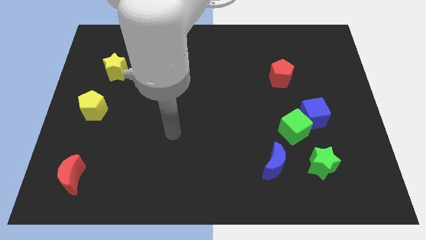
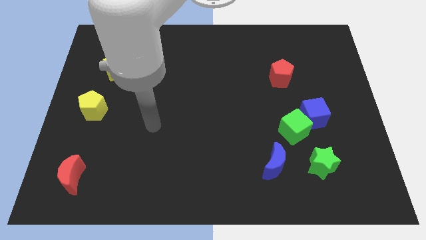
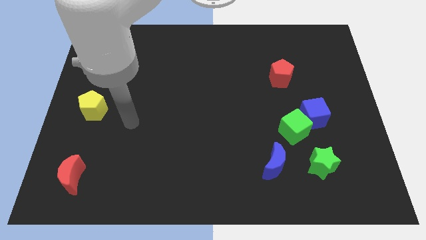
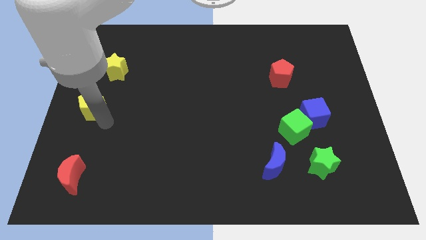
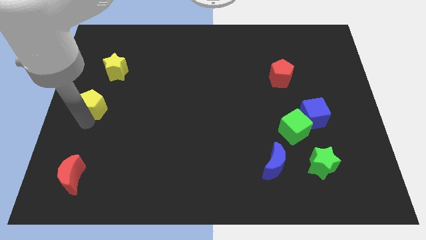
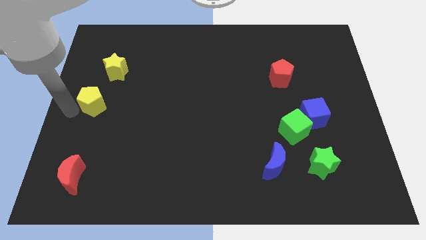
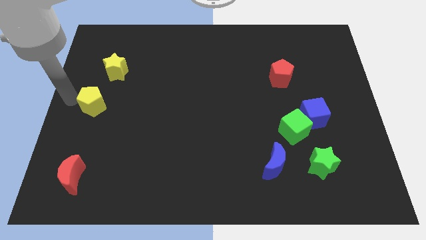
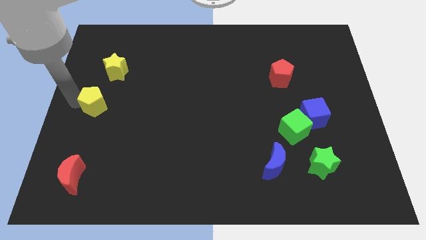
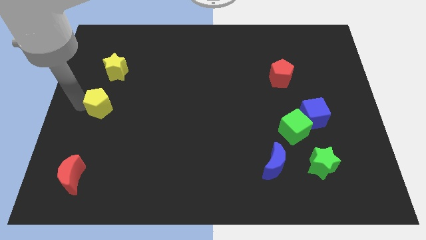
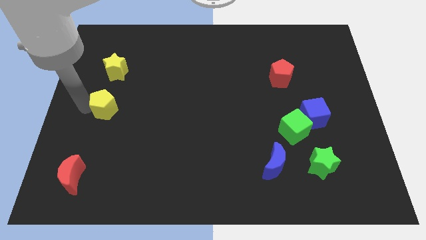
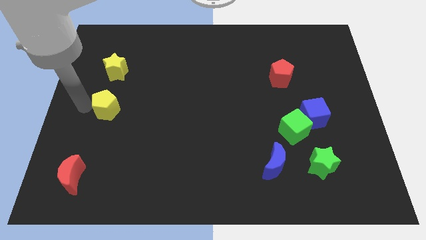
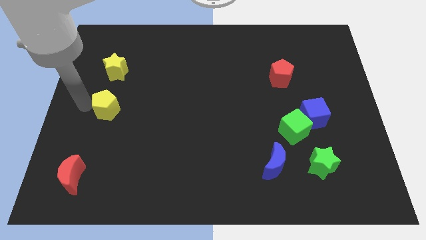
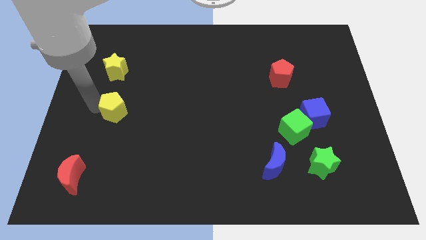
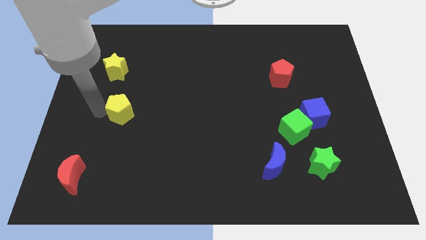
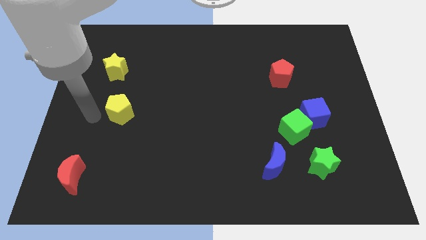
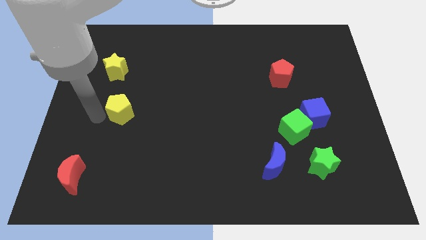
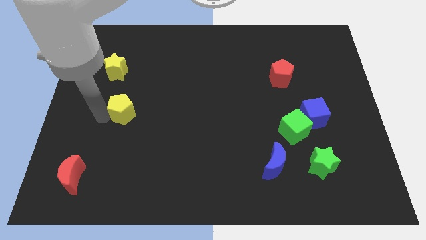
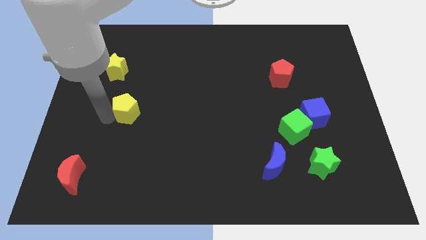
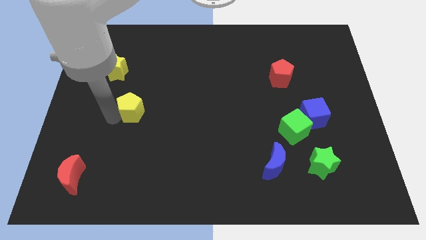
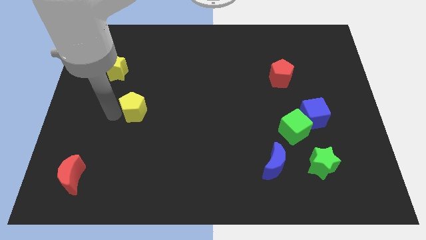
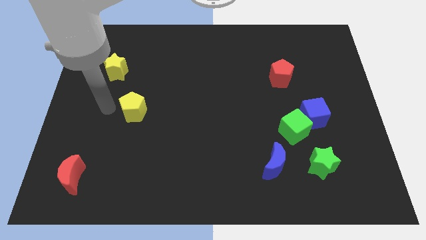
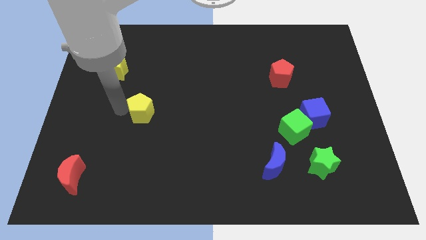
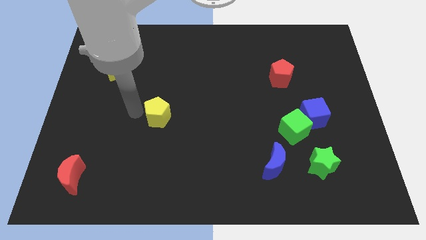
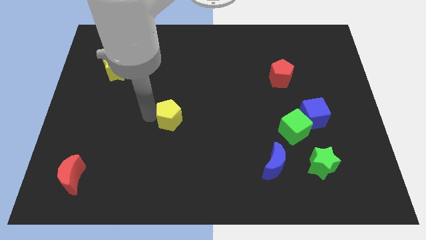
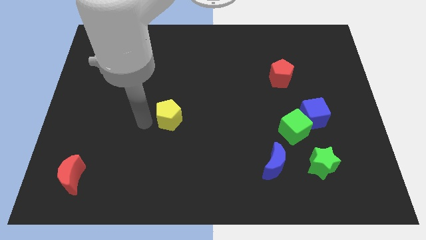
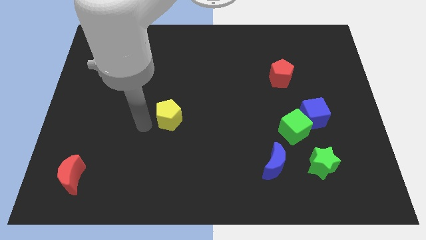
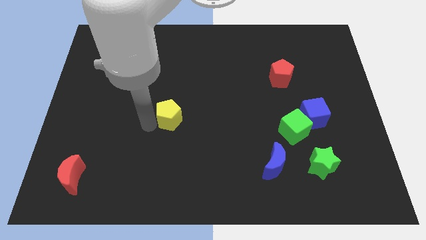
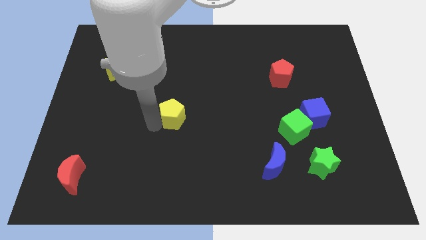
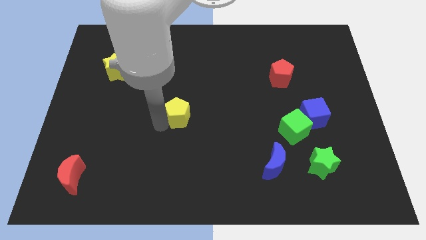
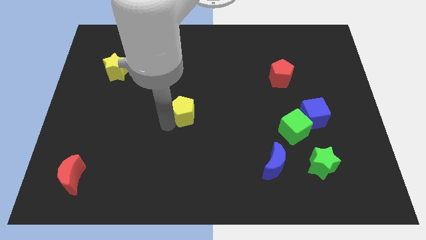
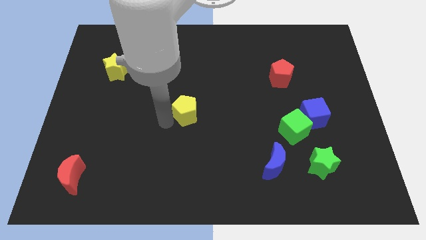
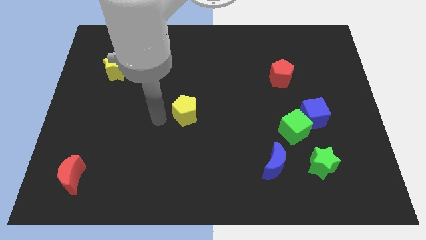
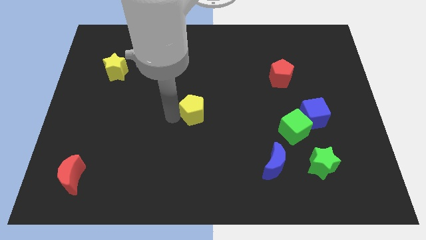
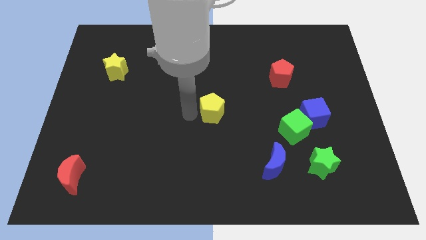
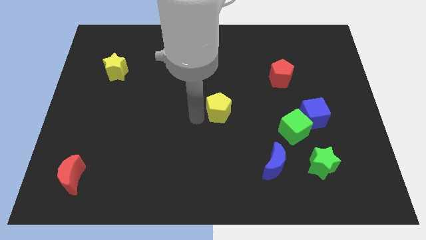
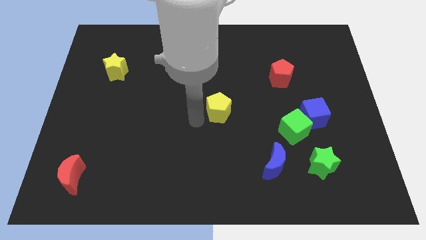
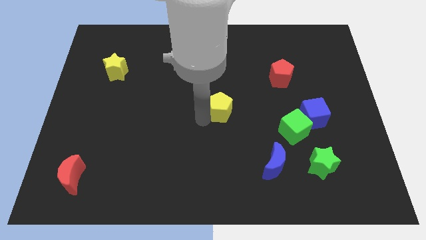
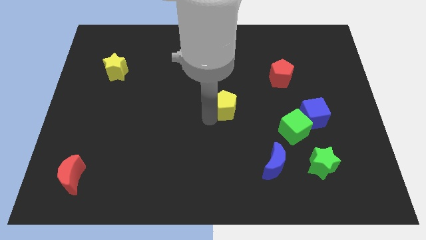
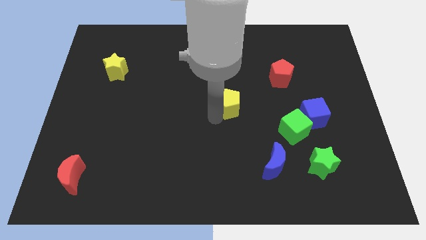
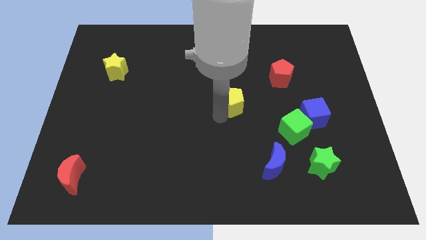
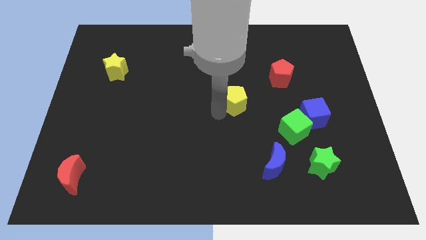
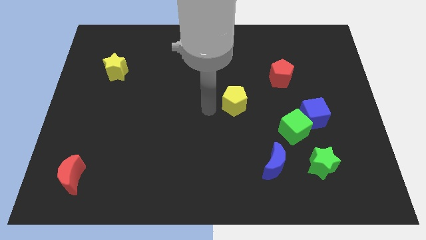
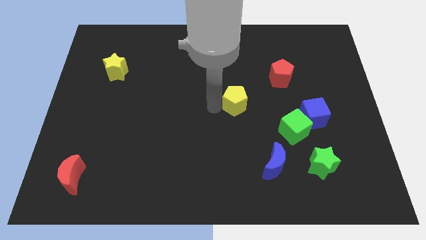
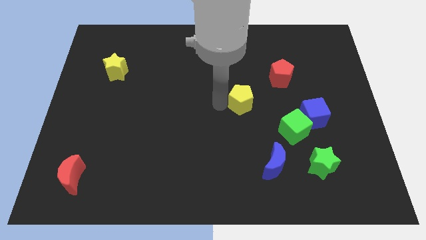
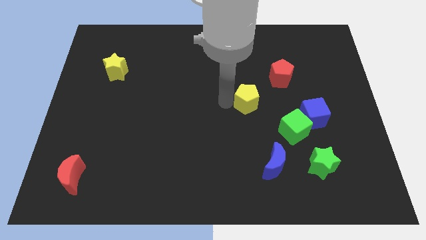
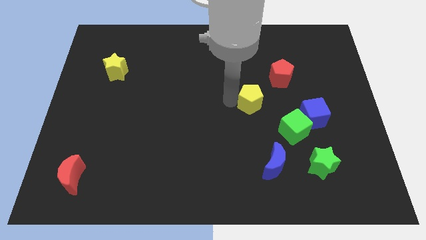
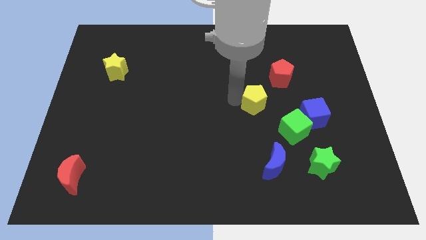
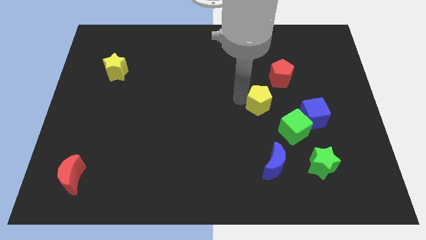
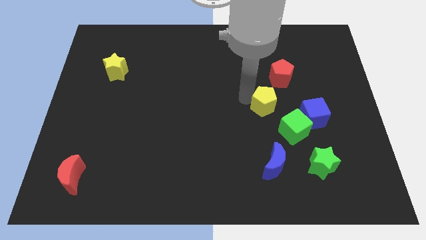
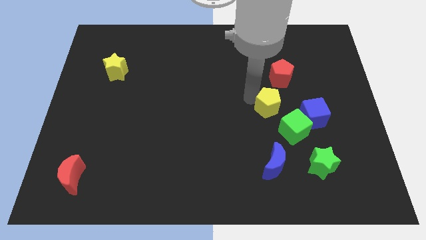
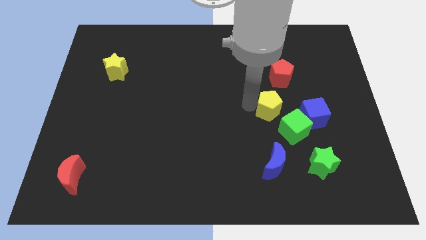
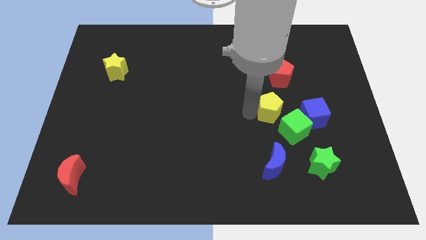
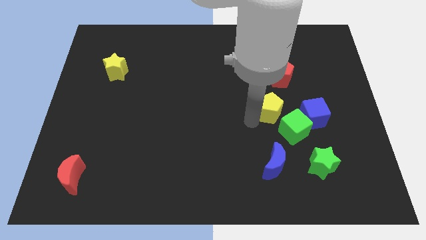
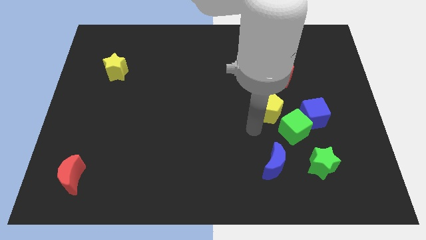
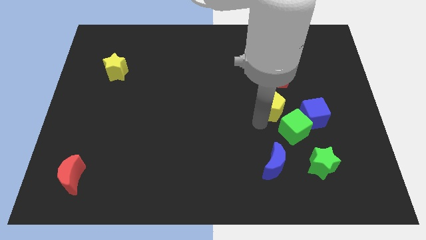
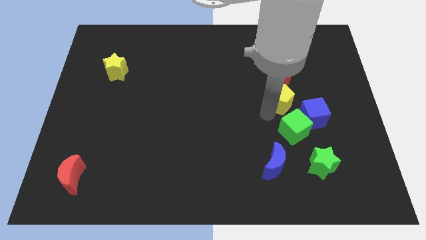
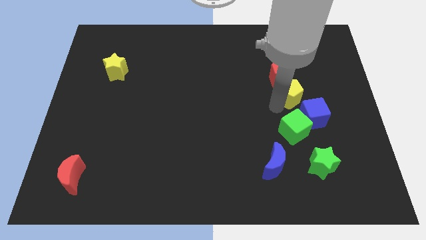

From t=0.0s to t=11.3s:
put the yellow pentagon above the blue cube

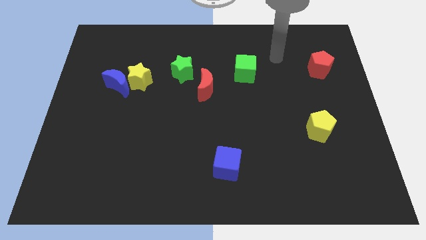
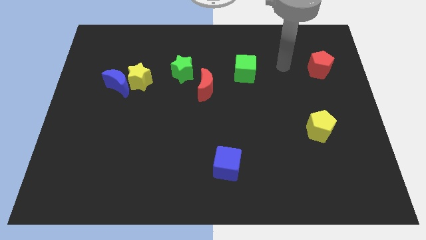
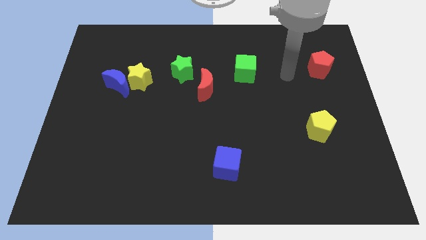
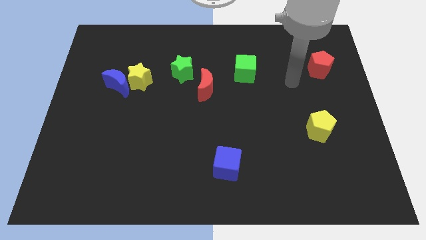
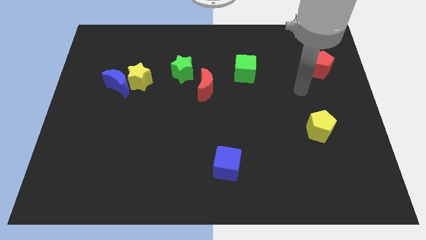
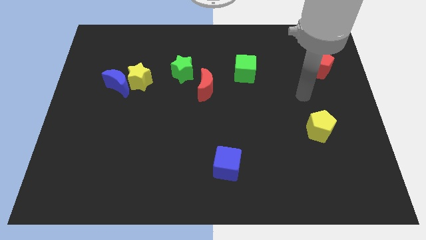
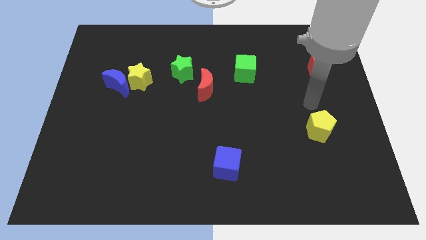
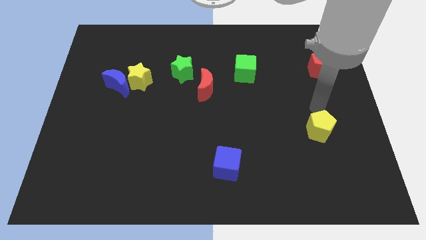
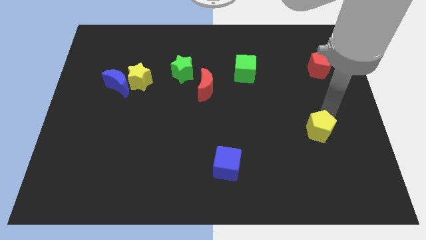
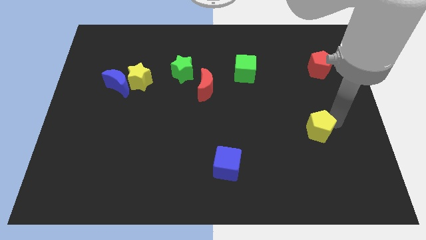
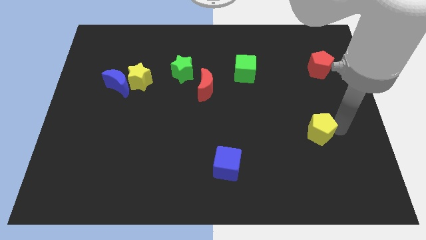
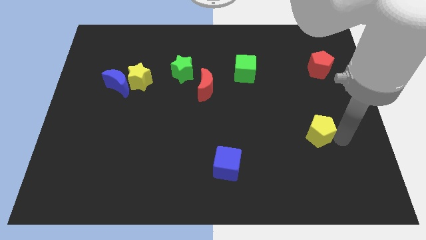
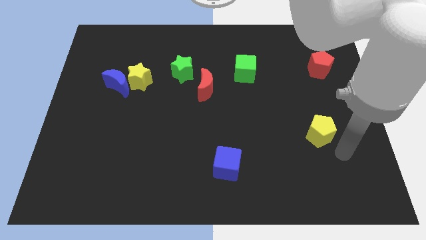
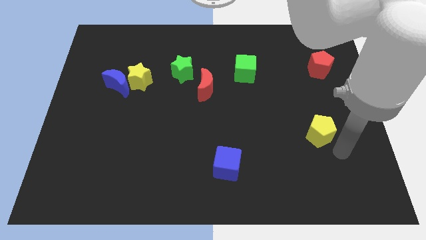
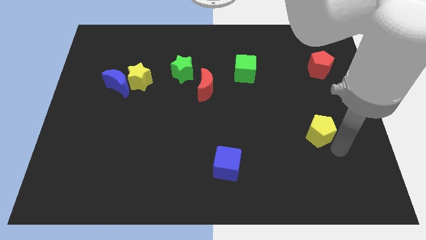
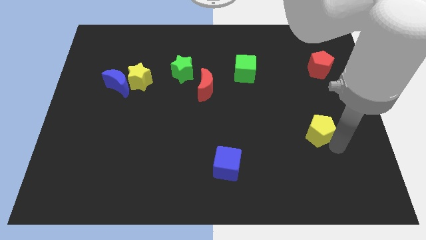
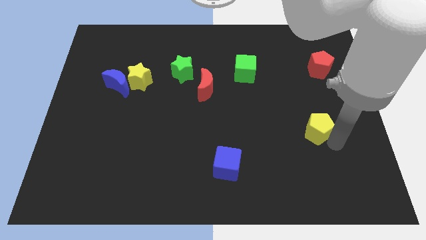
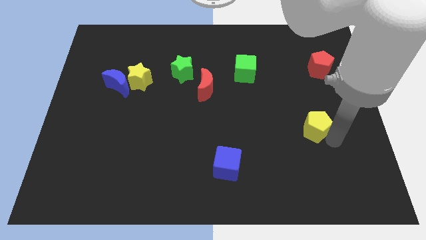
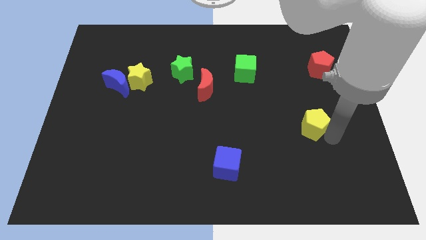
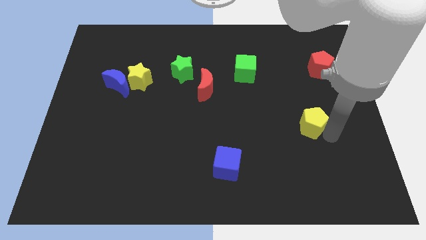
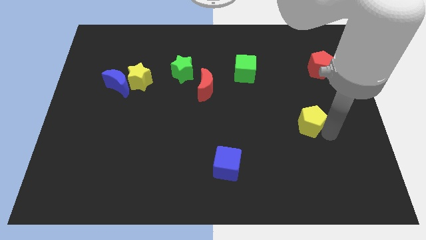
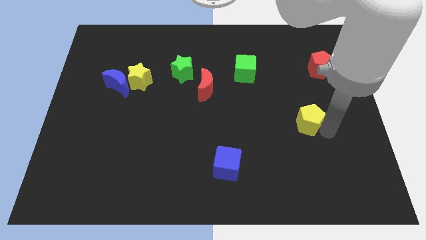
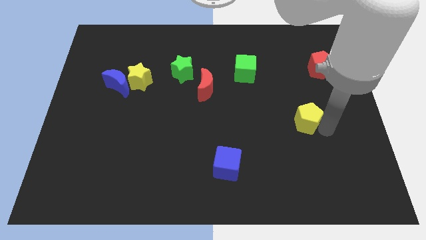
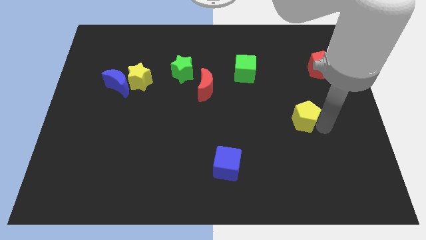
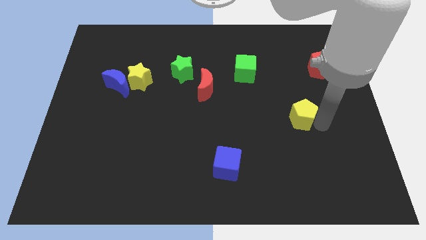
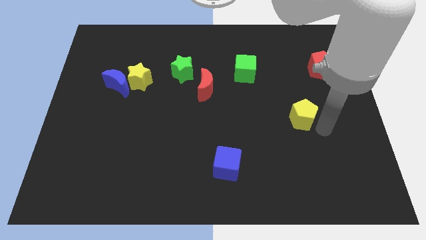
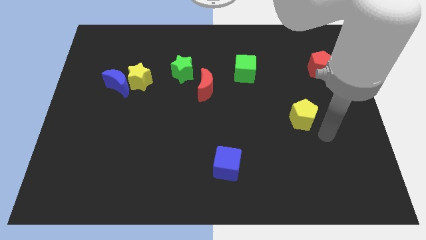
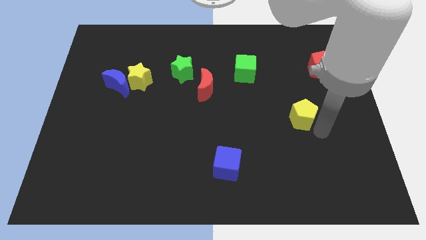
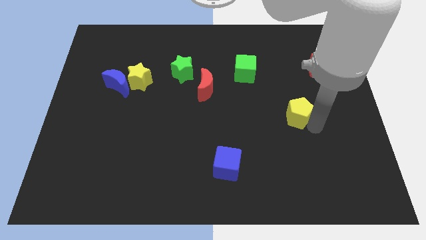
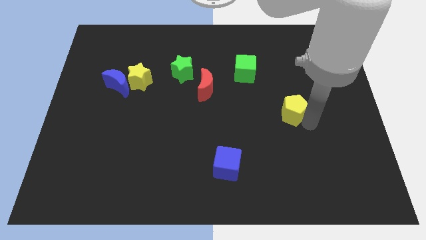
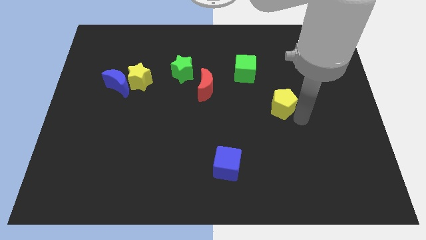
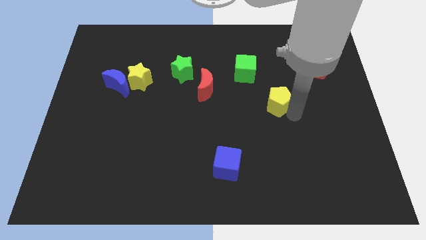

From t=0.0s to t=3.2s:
put the yellow pentagon diagonally down and to the right of the green cube
